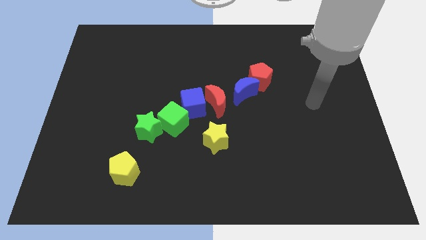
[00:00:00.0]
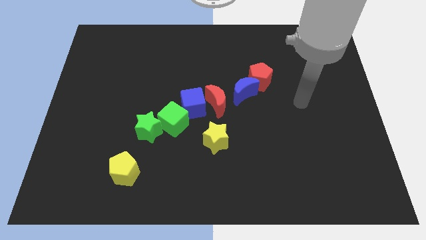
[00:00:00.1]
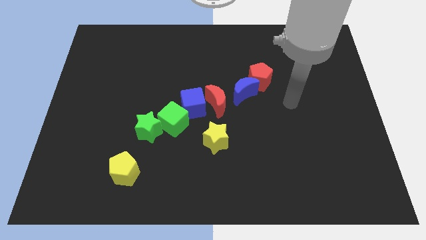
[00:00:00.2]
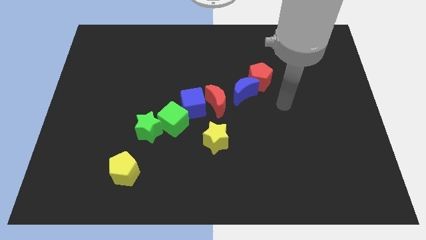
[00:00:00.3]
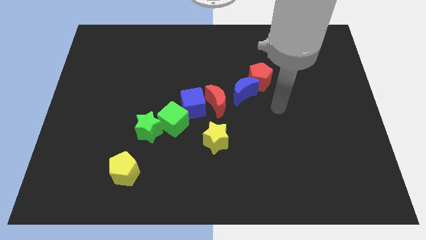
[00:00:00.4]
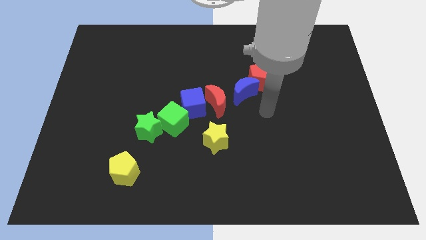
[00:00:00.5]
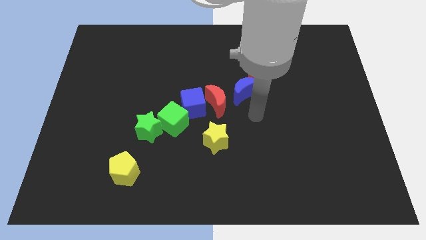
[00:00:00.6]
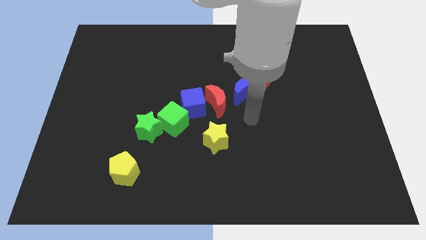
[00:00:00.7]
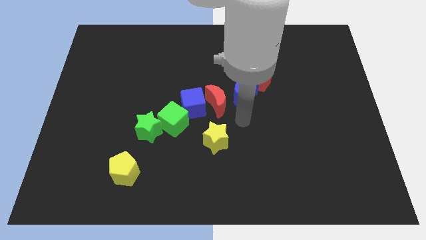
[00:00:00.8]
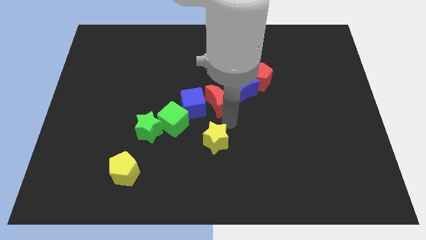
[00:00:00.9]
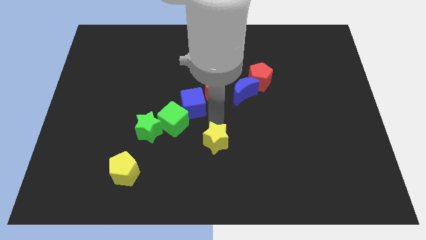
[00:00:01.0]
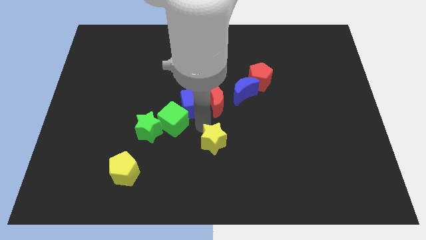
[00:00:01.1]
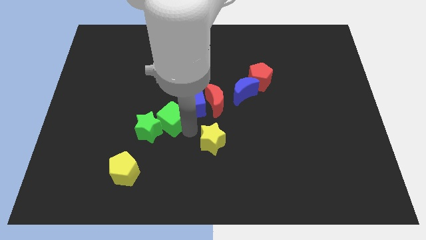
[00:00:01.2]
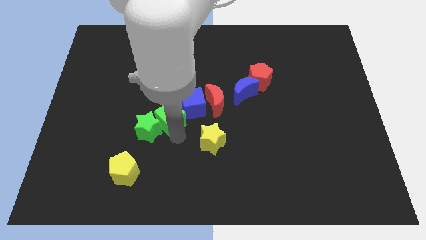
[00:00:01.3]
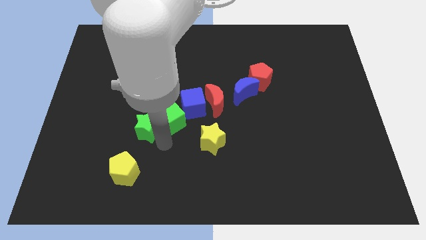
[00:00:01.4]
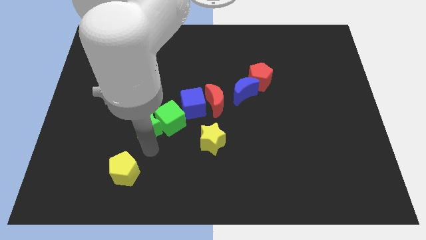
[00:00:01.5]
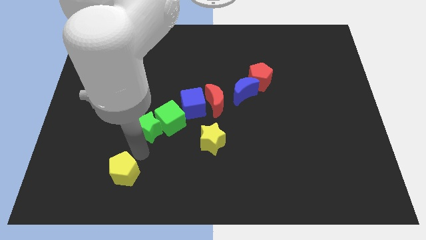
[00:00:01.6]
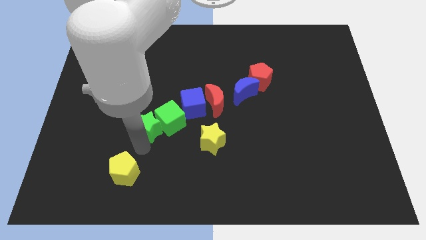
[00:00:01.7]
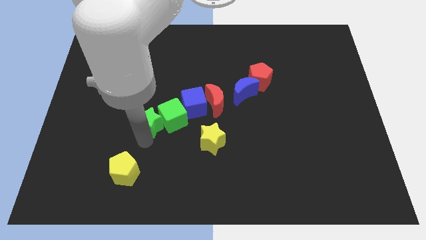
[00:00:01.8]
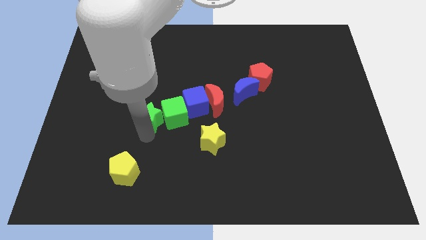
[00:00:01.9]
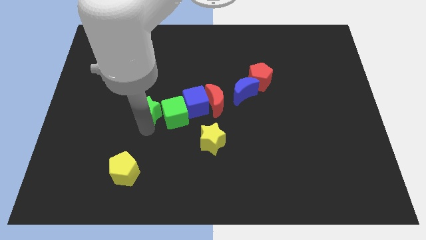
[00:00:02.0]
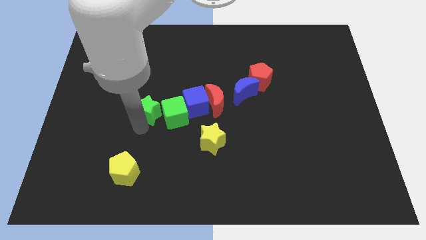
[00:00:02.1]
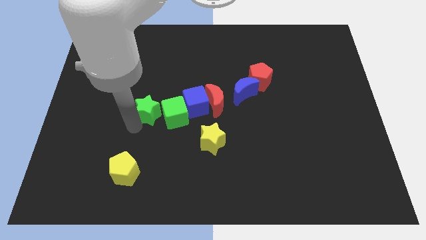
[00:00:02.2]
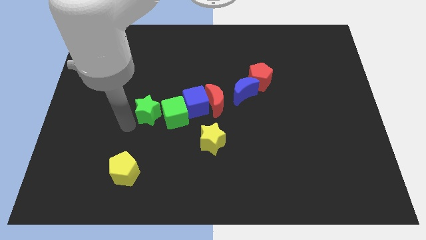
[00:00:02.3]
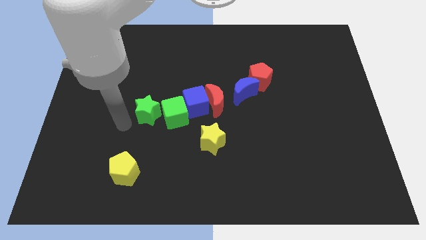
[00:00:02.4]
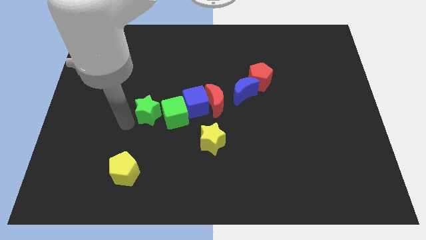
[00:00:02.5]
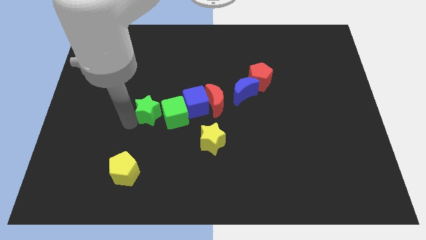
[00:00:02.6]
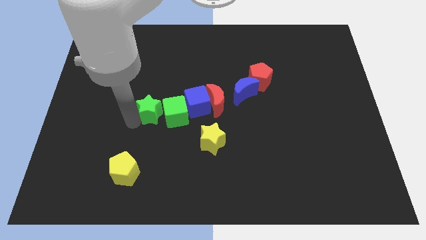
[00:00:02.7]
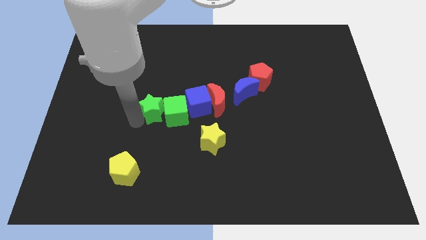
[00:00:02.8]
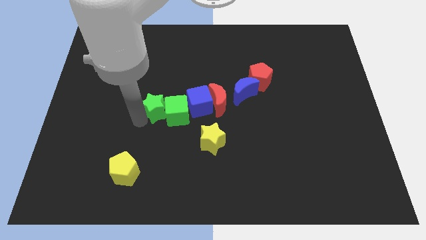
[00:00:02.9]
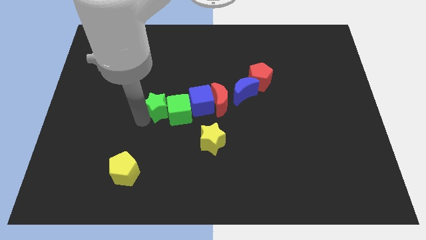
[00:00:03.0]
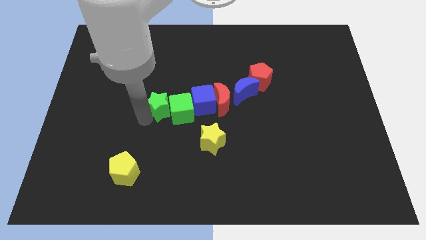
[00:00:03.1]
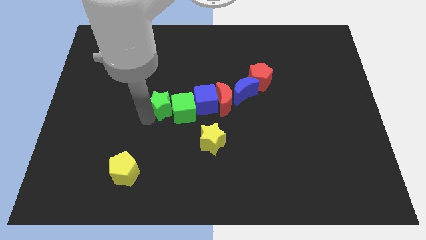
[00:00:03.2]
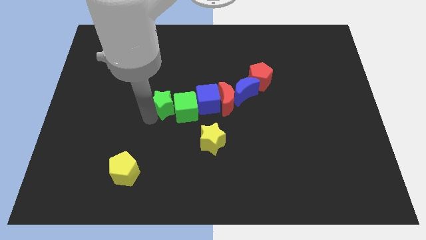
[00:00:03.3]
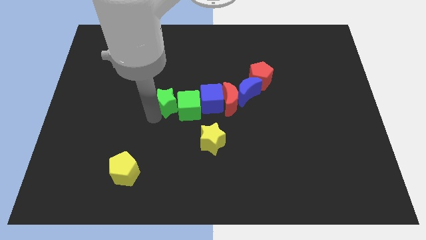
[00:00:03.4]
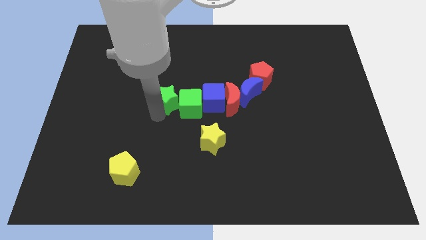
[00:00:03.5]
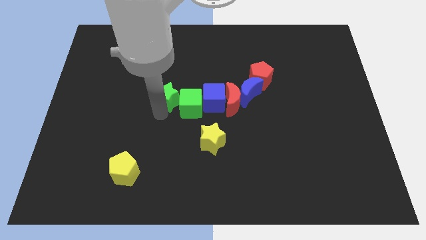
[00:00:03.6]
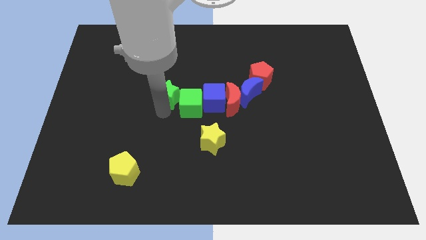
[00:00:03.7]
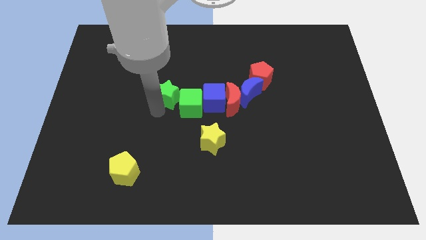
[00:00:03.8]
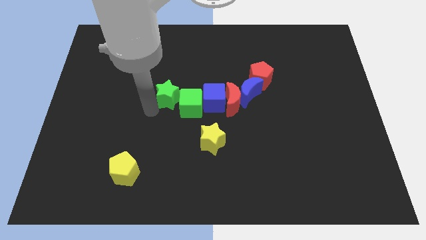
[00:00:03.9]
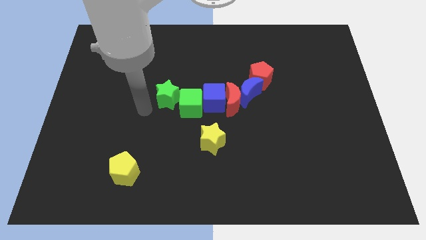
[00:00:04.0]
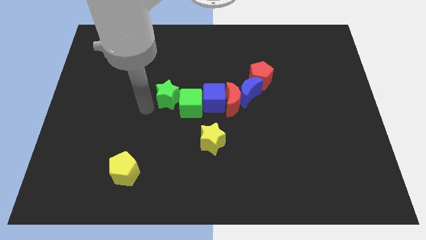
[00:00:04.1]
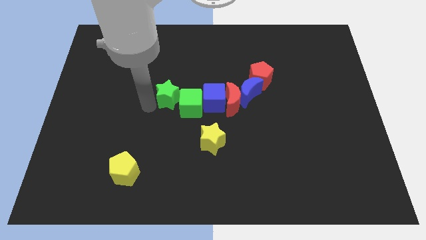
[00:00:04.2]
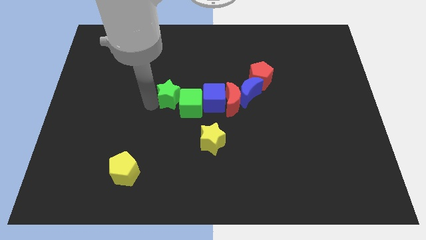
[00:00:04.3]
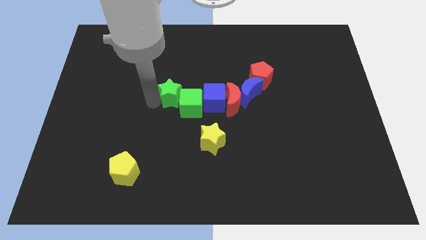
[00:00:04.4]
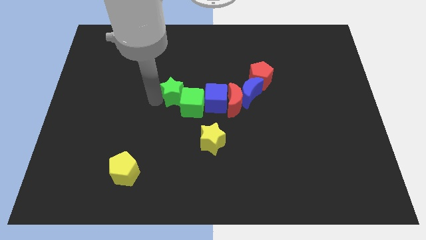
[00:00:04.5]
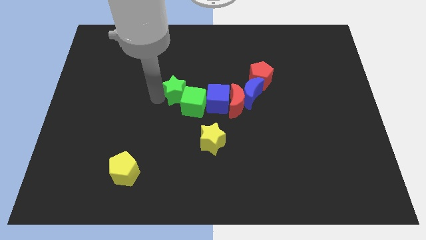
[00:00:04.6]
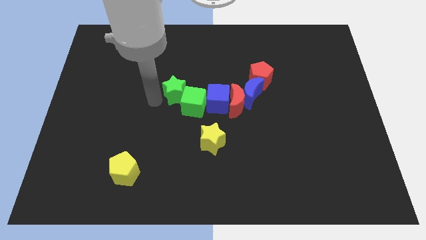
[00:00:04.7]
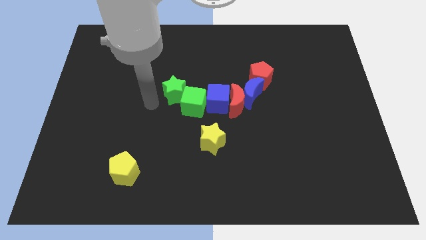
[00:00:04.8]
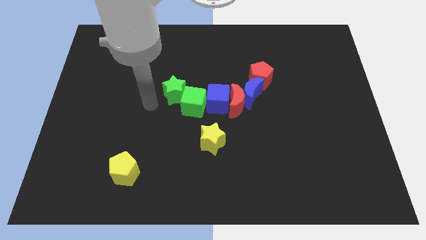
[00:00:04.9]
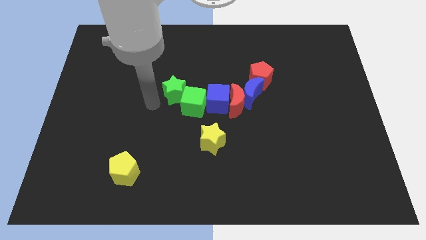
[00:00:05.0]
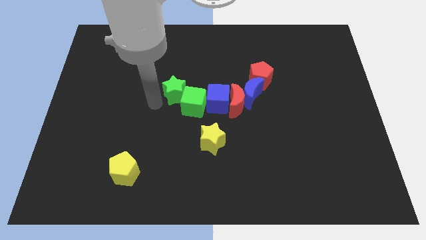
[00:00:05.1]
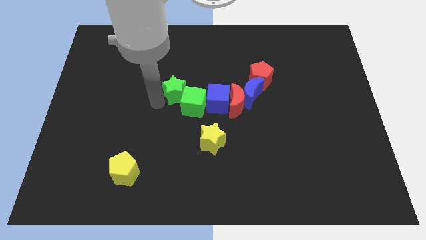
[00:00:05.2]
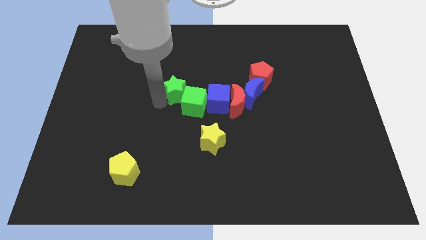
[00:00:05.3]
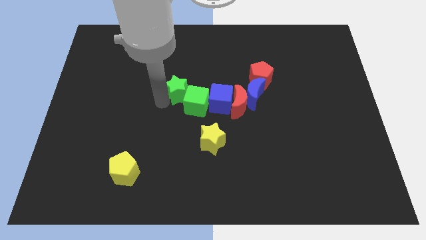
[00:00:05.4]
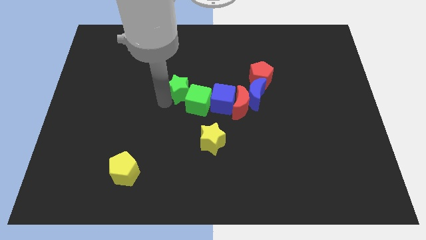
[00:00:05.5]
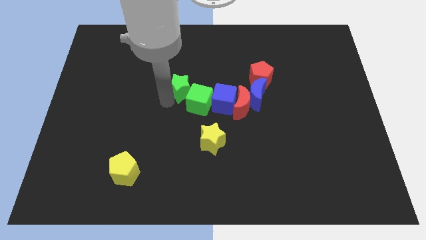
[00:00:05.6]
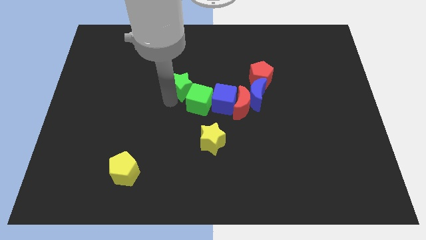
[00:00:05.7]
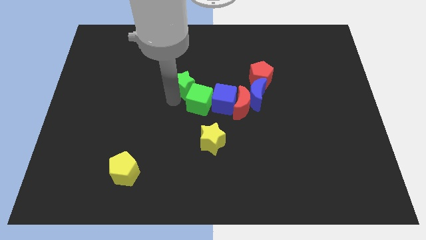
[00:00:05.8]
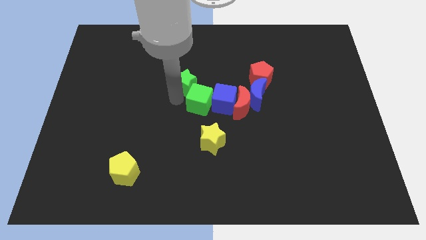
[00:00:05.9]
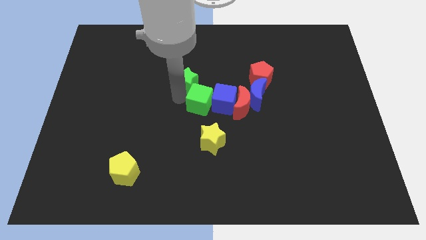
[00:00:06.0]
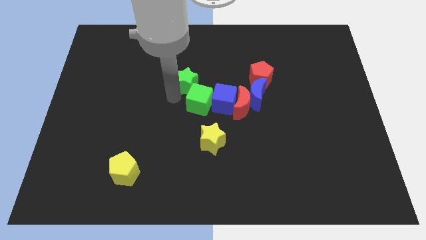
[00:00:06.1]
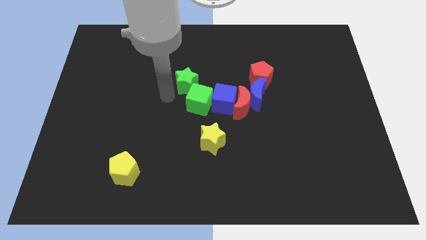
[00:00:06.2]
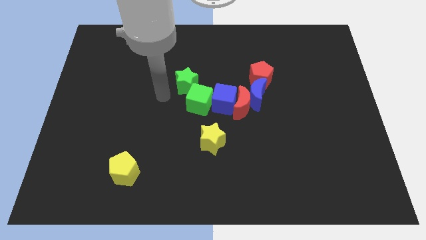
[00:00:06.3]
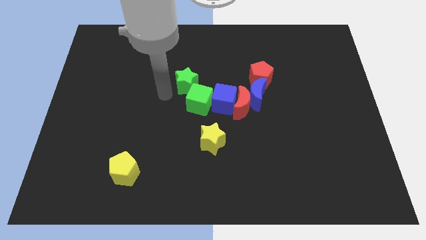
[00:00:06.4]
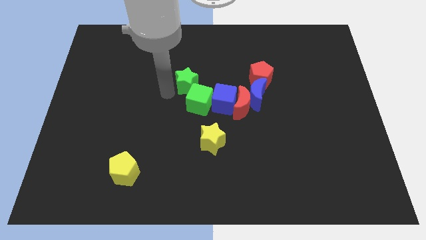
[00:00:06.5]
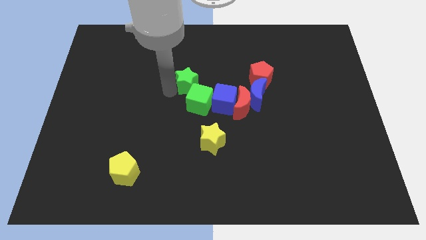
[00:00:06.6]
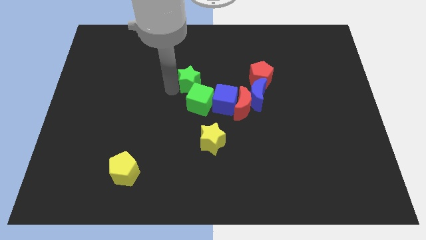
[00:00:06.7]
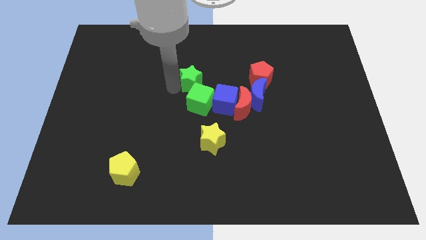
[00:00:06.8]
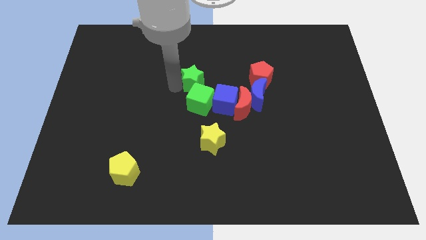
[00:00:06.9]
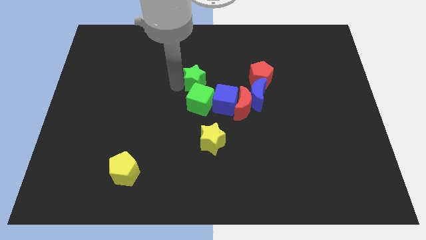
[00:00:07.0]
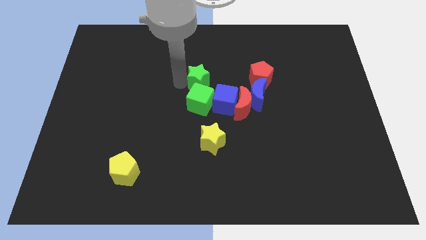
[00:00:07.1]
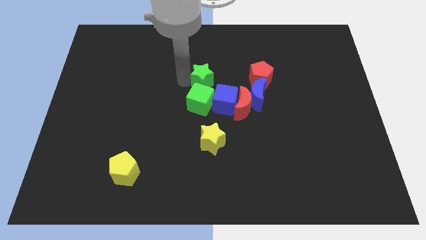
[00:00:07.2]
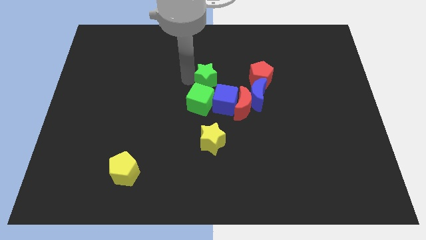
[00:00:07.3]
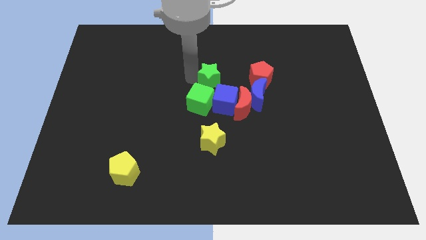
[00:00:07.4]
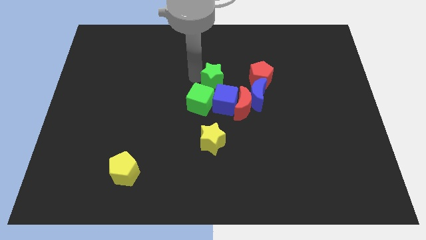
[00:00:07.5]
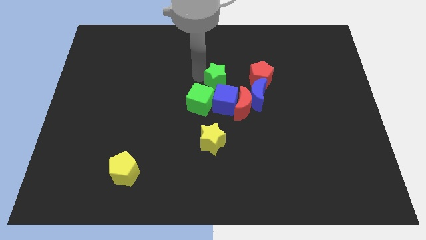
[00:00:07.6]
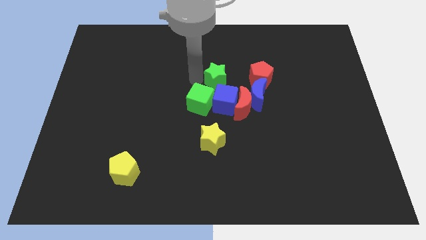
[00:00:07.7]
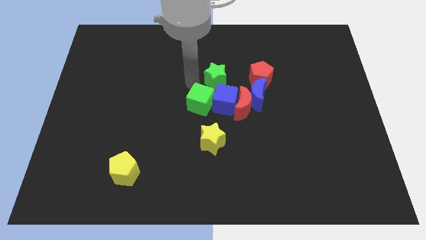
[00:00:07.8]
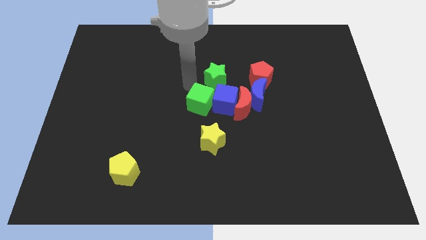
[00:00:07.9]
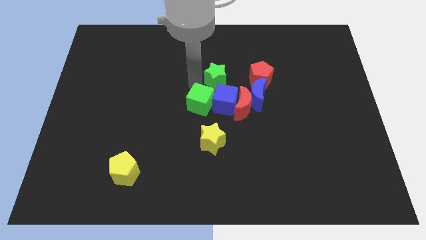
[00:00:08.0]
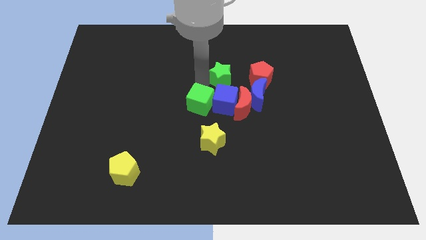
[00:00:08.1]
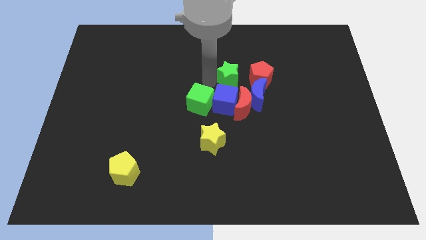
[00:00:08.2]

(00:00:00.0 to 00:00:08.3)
push the green star to the top of the red moon
